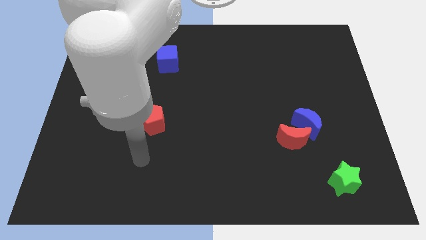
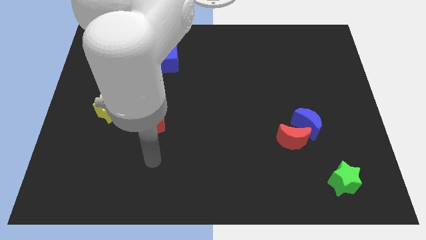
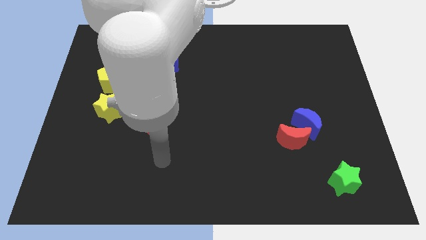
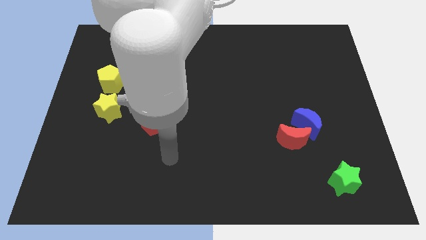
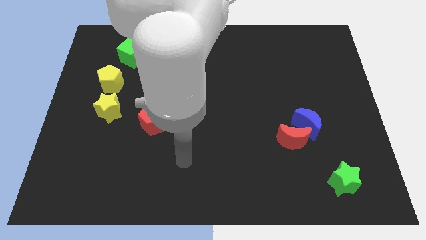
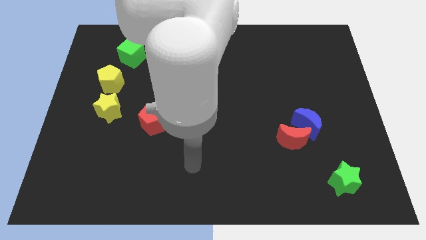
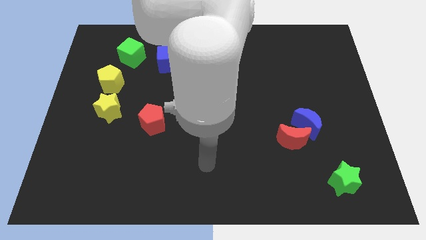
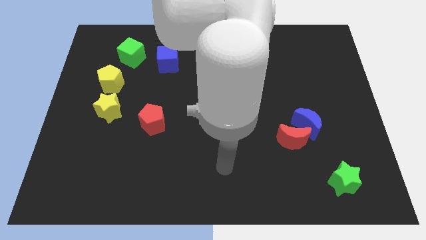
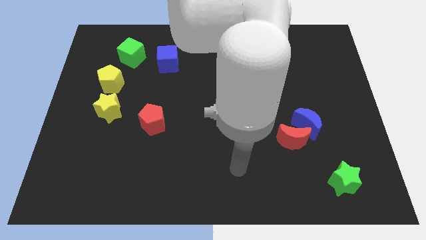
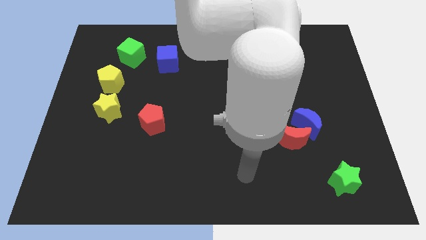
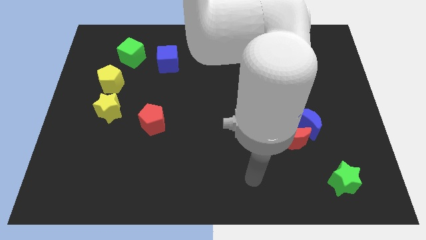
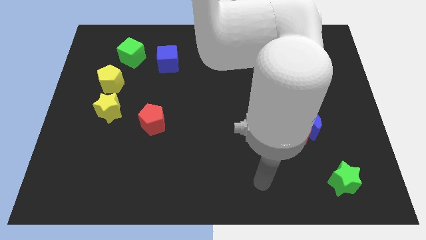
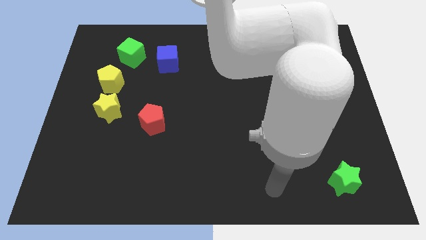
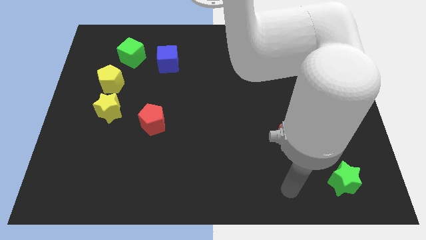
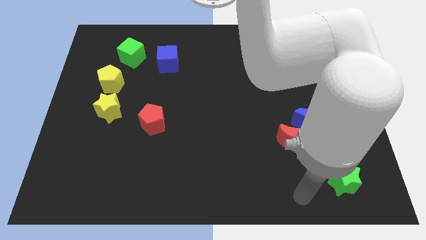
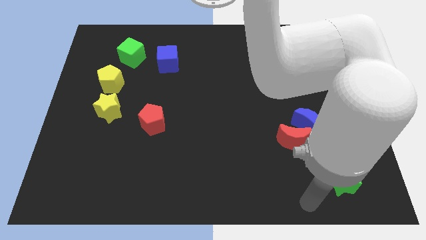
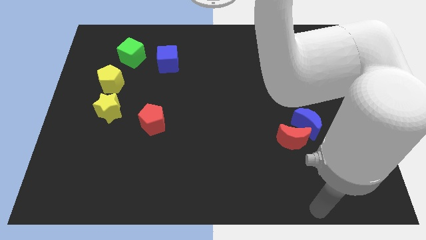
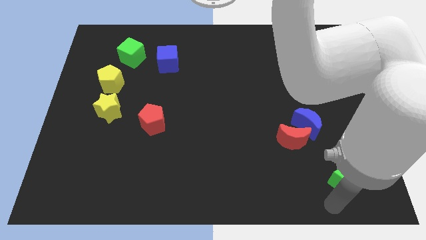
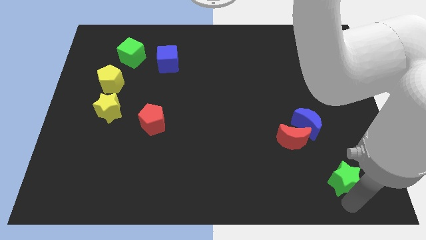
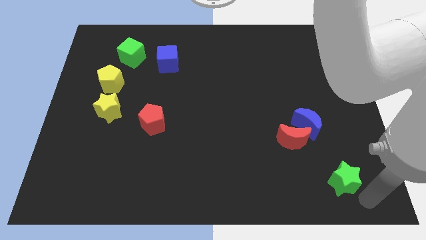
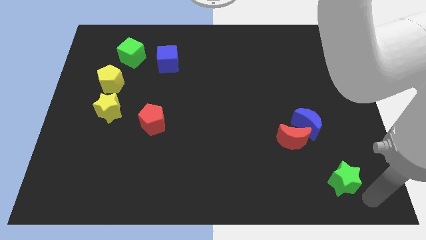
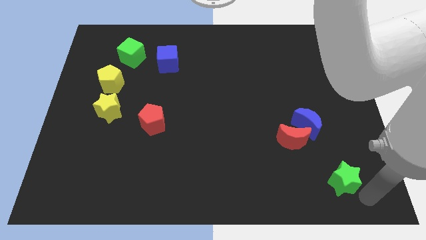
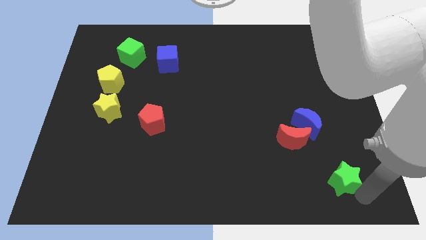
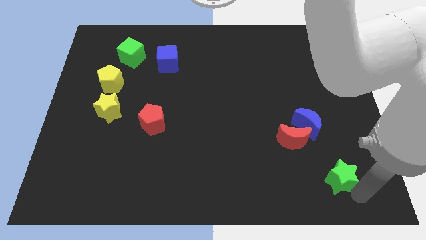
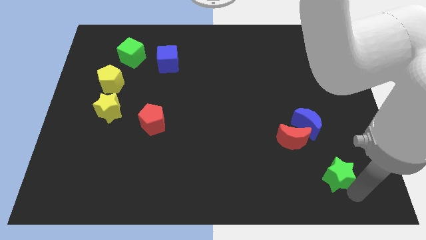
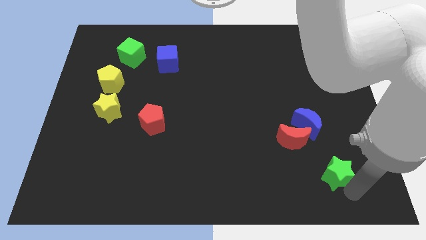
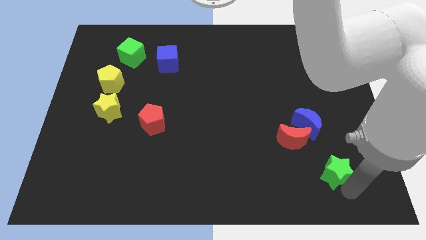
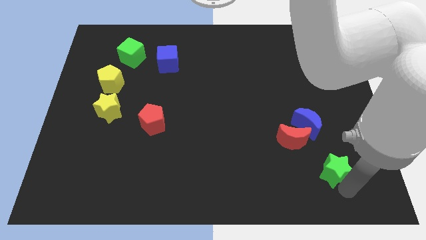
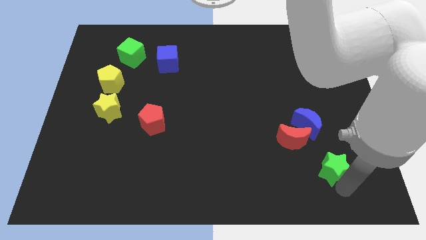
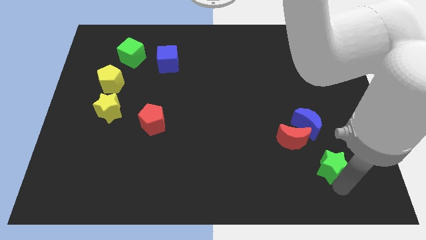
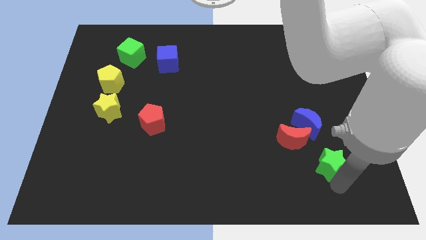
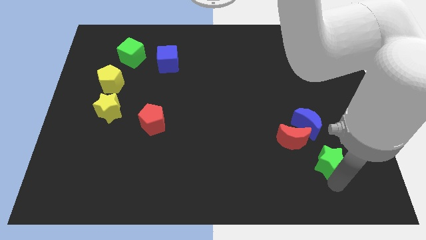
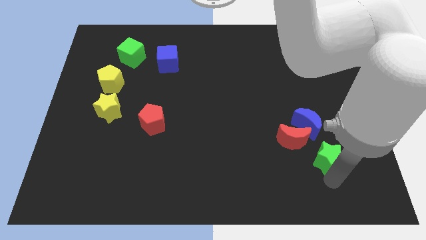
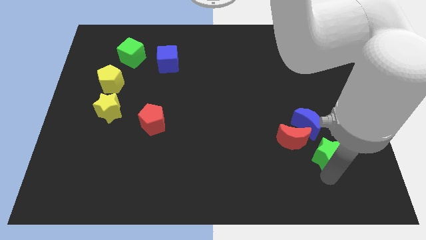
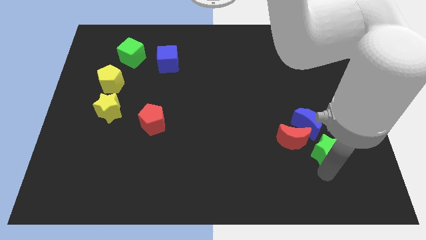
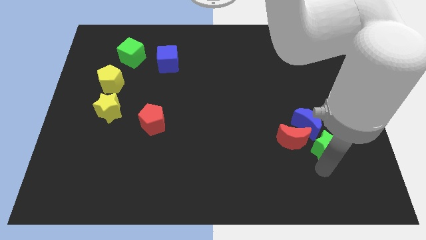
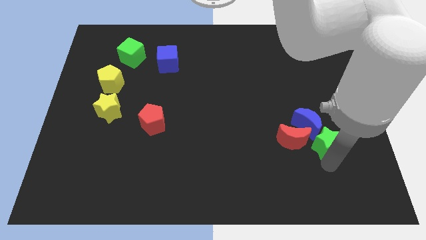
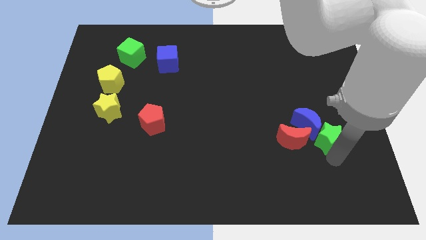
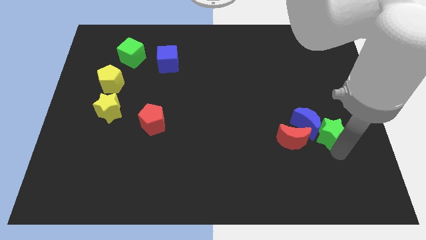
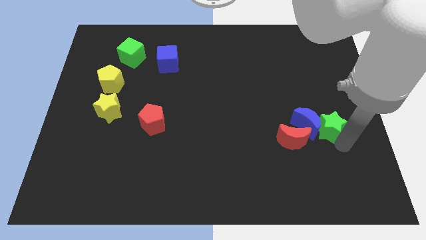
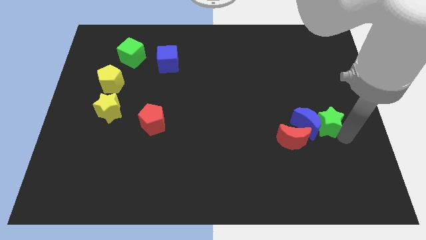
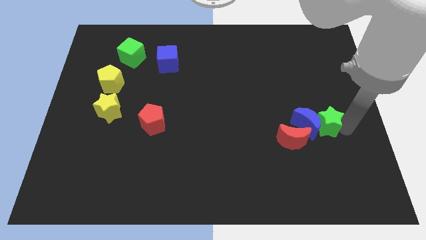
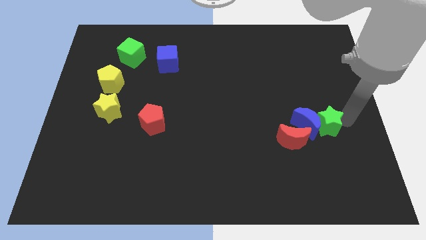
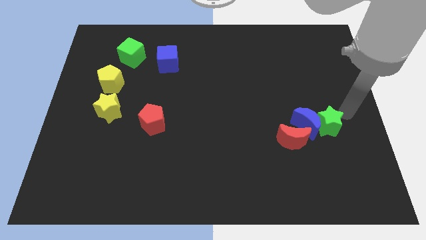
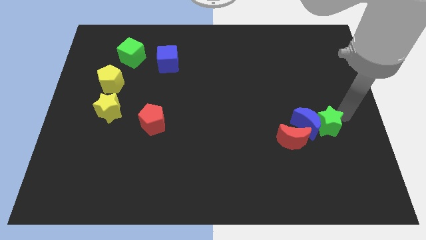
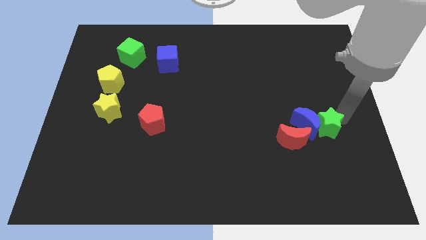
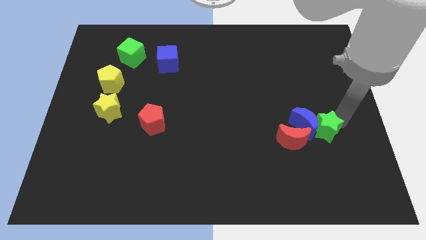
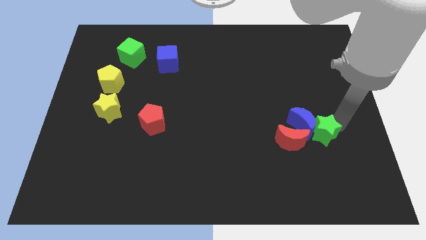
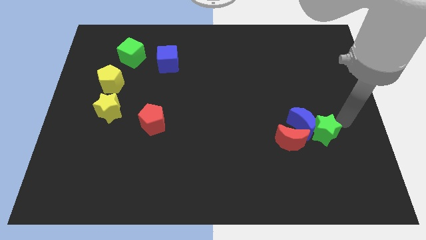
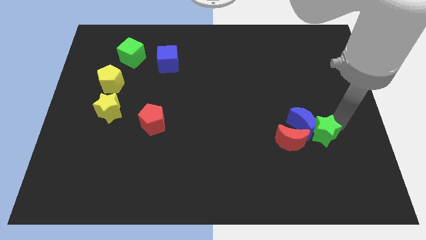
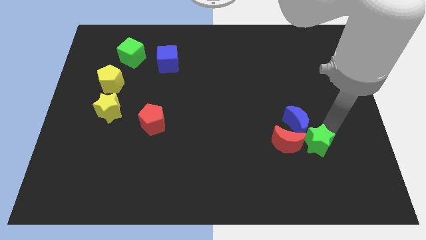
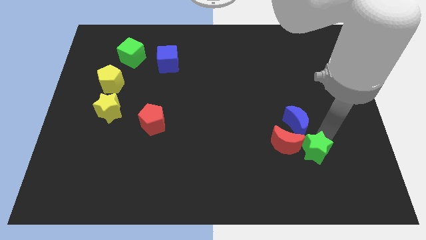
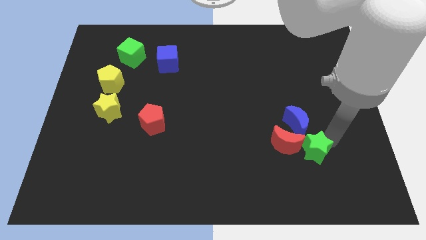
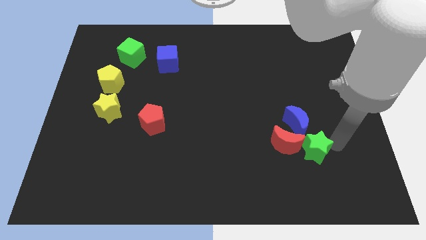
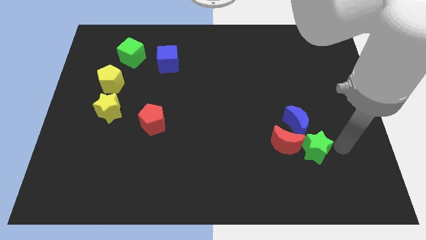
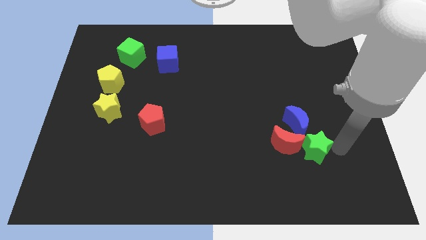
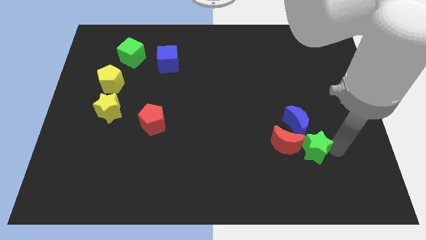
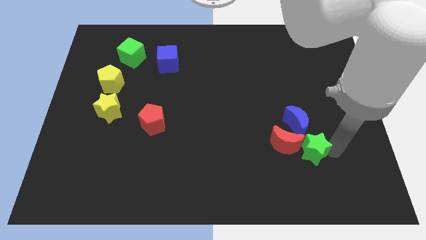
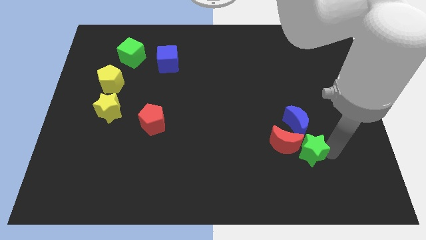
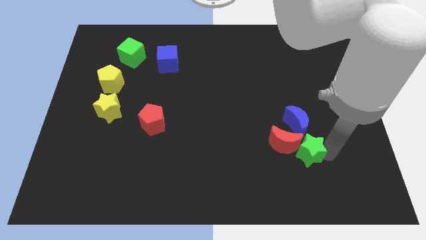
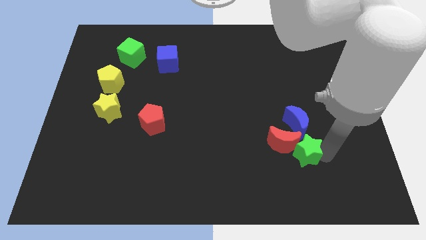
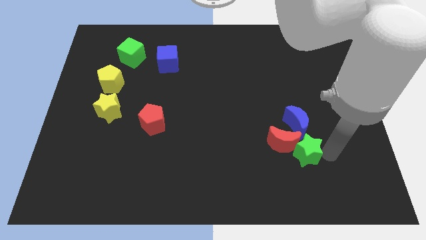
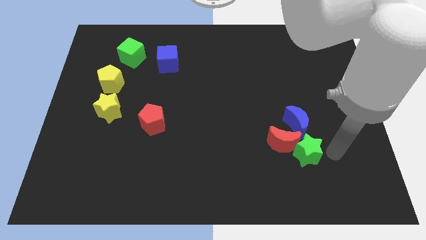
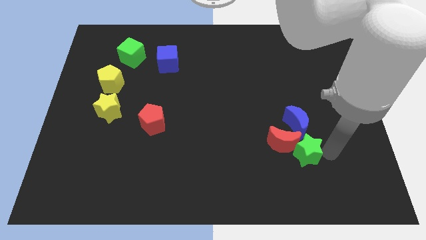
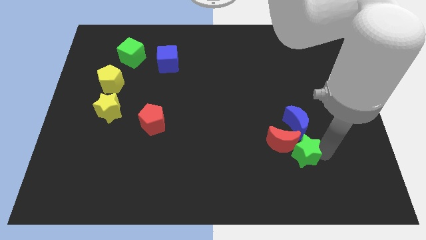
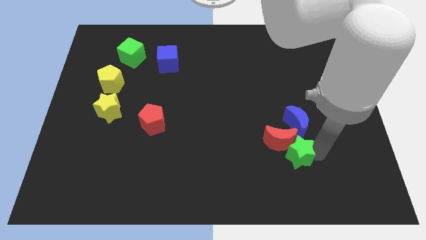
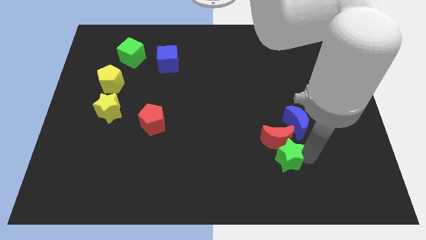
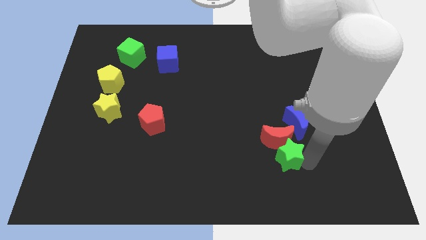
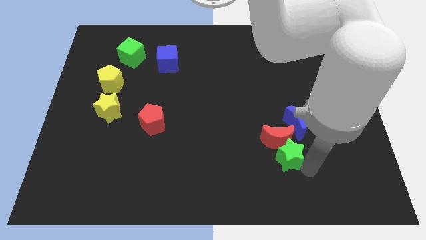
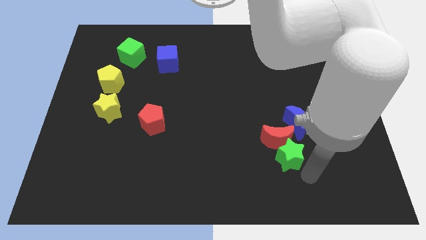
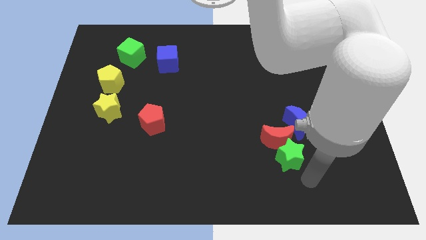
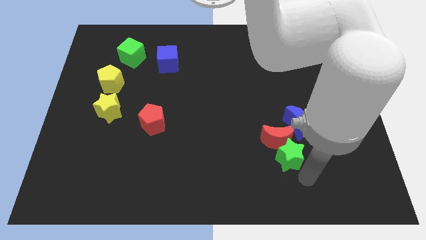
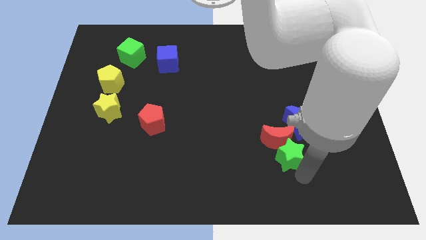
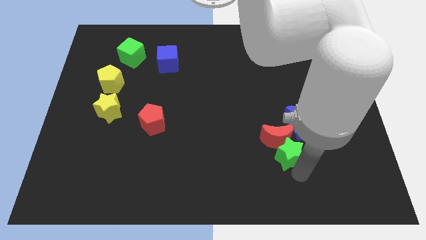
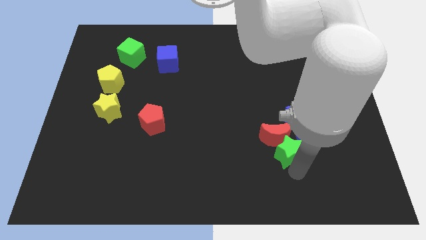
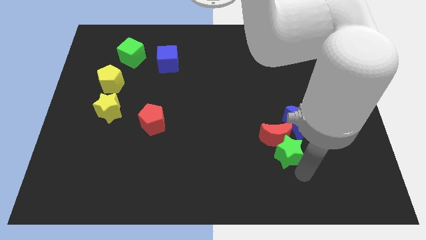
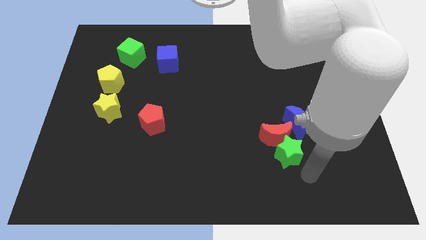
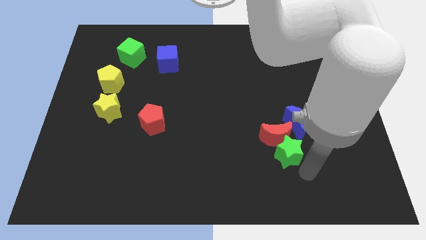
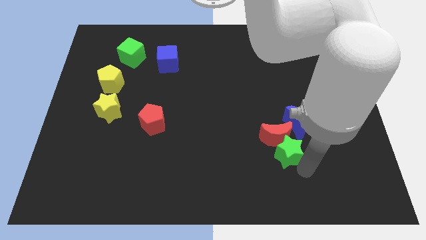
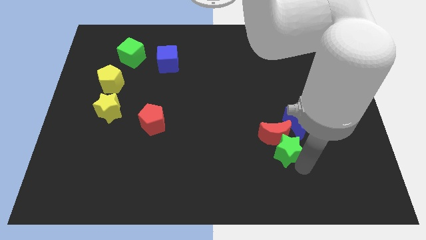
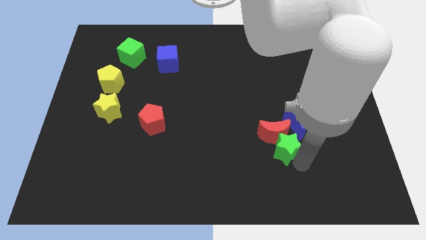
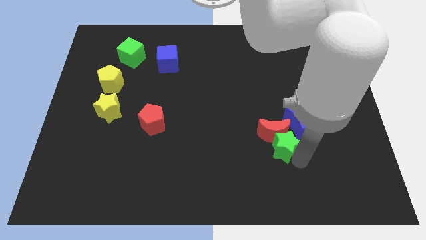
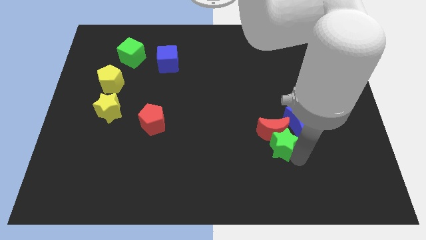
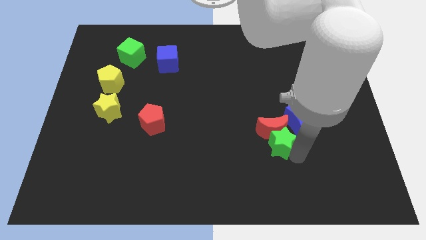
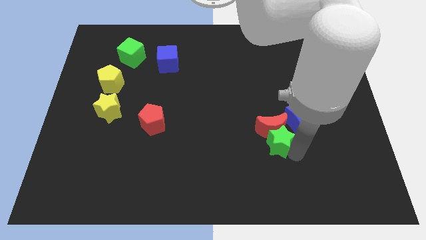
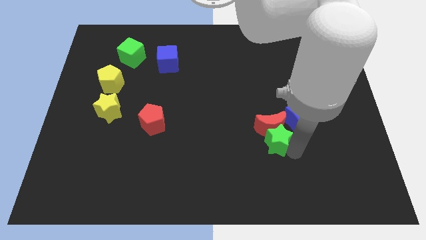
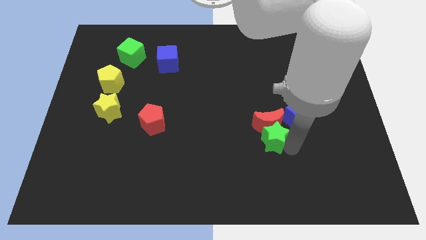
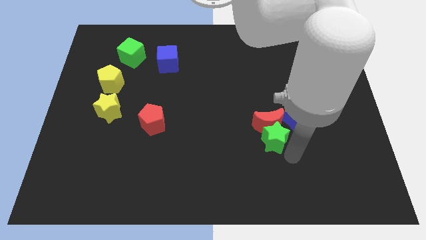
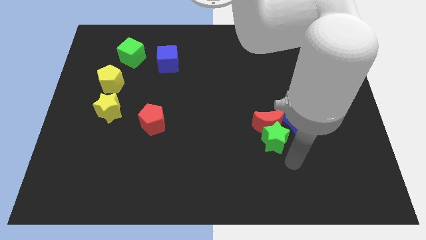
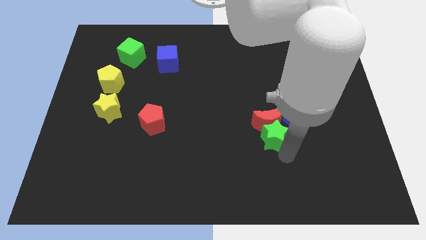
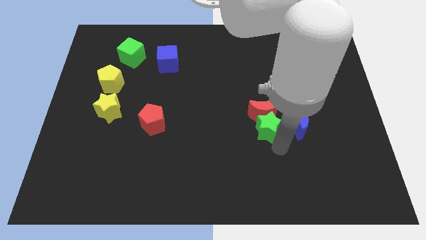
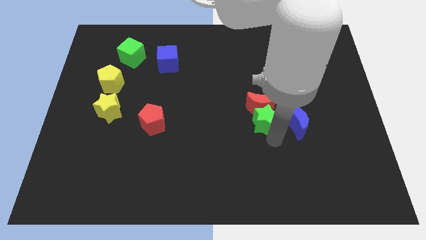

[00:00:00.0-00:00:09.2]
move the green star upwards and to the left diagonally
